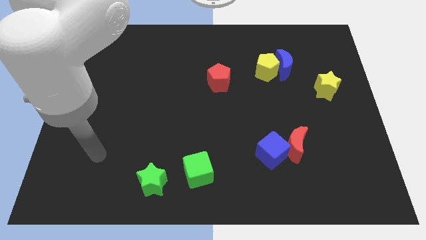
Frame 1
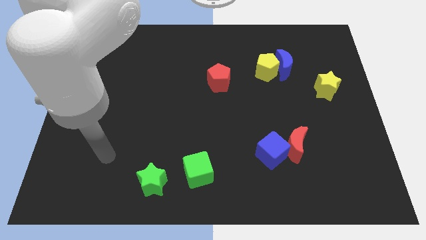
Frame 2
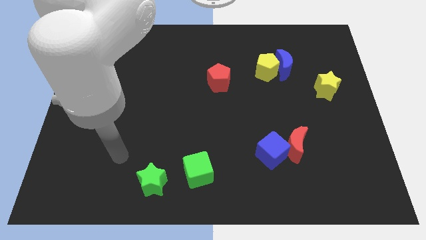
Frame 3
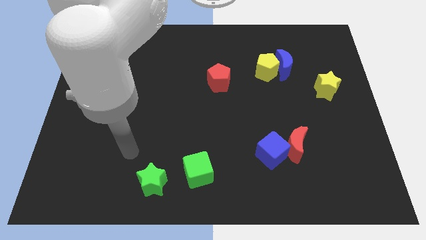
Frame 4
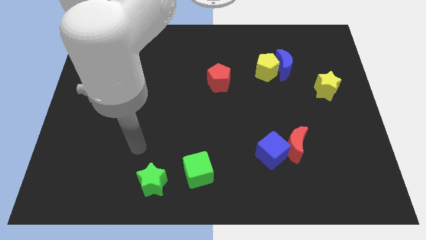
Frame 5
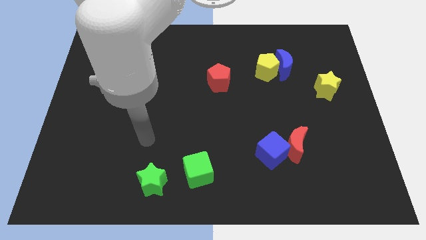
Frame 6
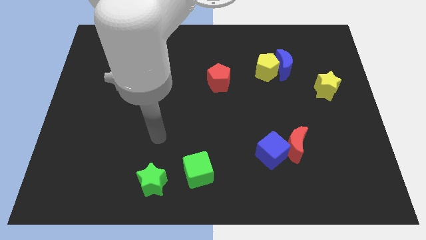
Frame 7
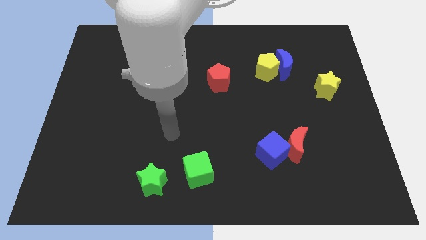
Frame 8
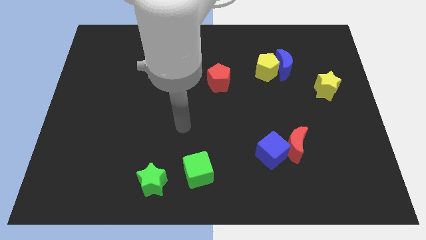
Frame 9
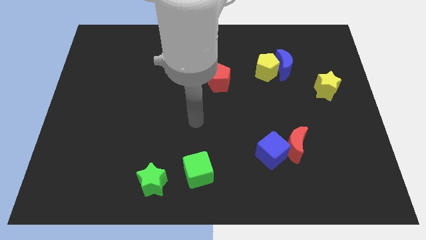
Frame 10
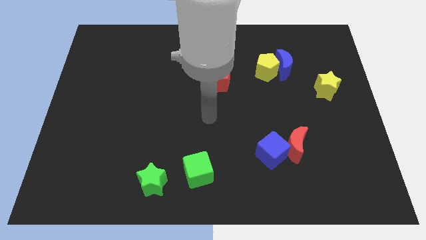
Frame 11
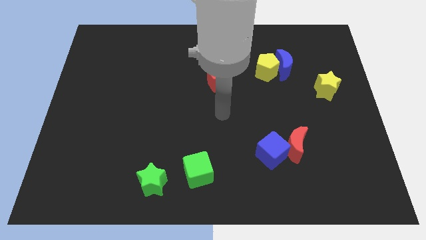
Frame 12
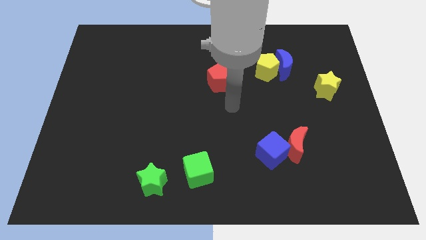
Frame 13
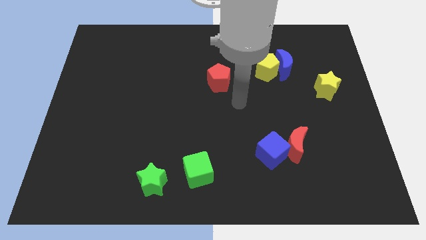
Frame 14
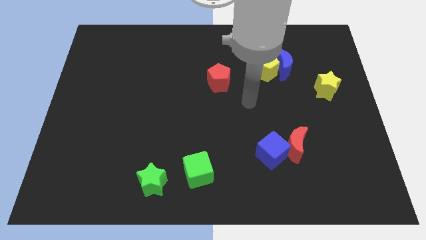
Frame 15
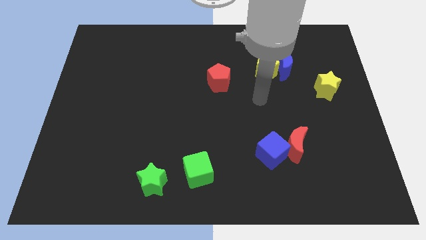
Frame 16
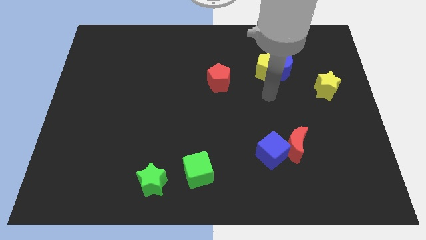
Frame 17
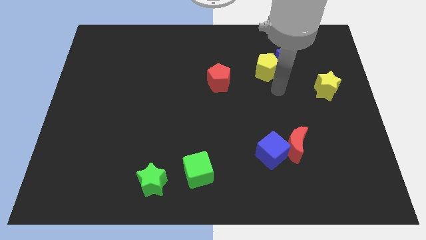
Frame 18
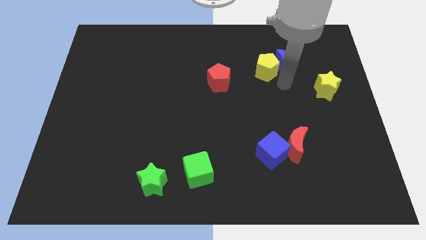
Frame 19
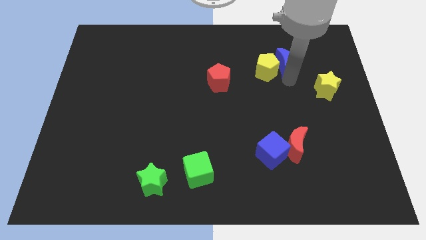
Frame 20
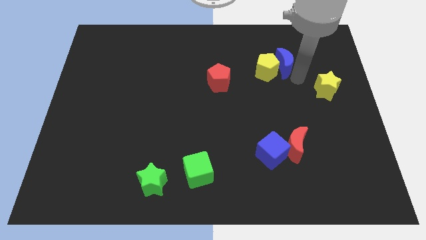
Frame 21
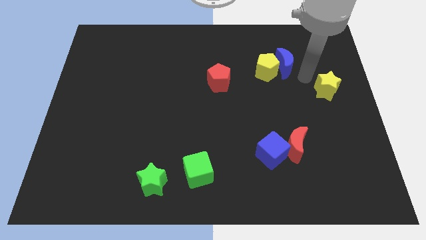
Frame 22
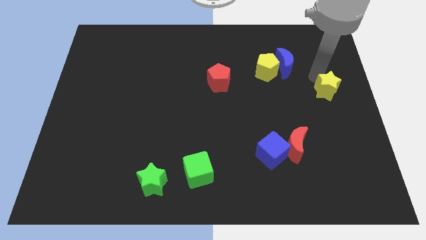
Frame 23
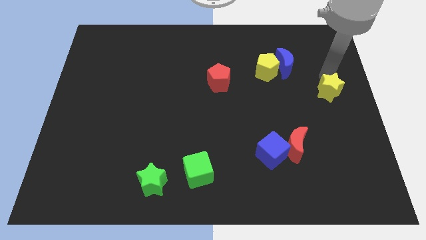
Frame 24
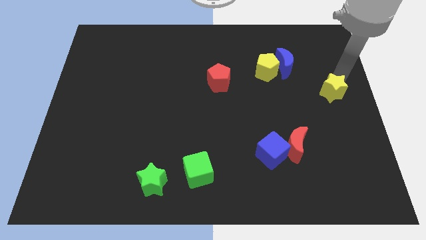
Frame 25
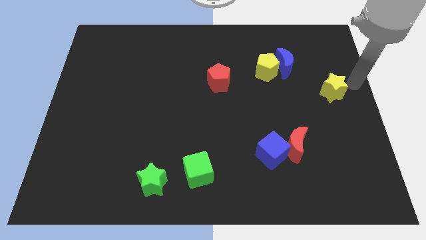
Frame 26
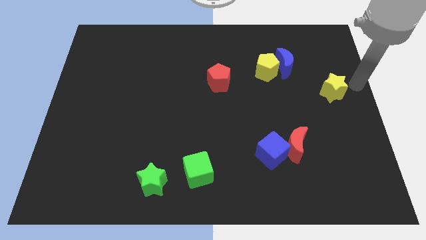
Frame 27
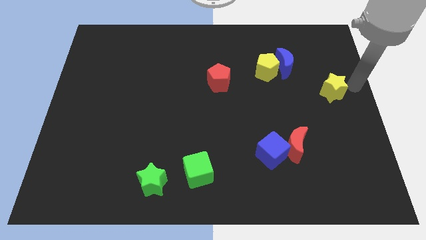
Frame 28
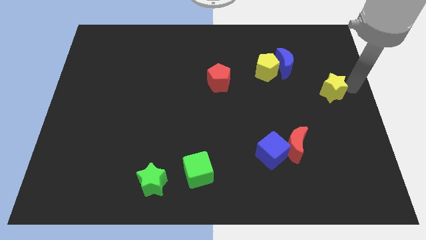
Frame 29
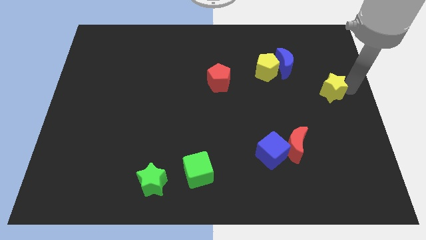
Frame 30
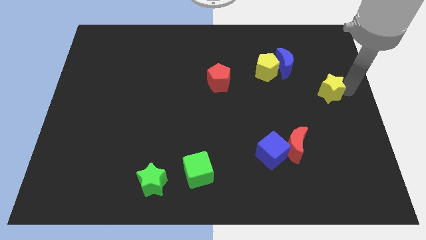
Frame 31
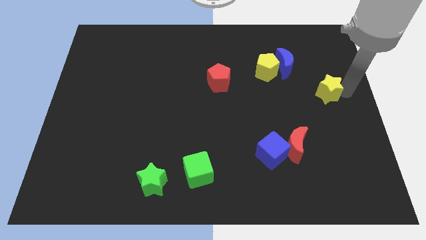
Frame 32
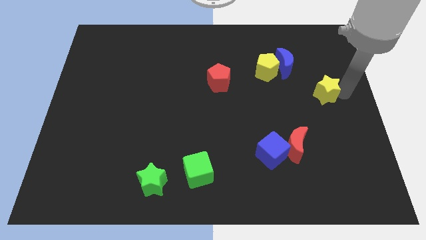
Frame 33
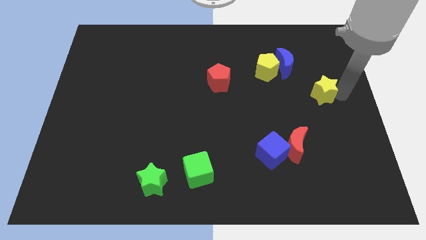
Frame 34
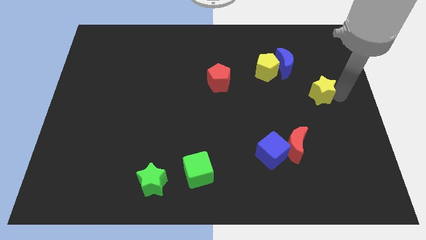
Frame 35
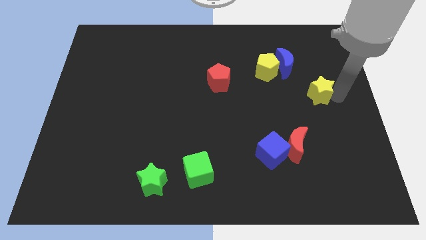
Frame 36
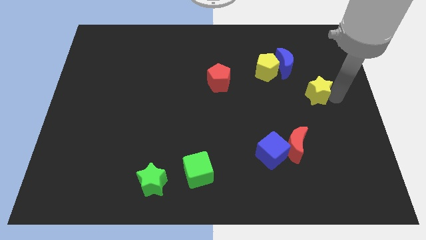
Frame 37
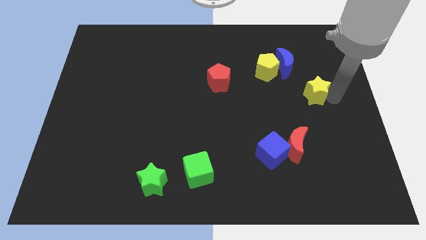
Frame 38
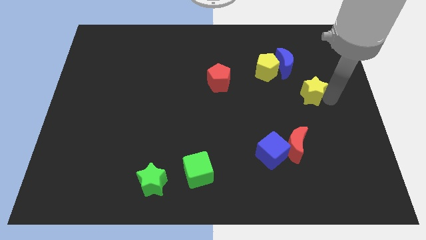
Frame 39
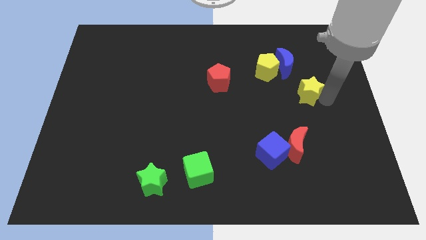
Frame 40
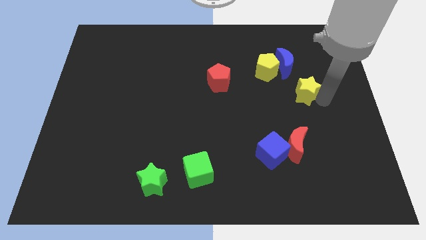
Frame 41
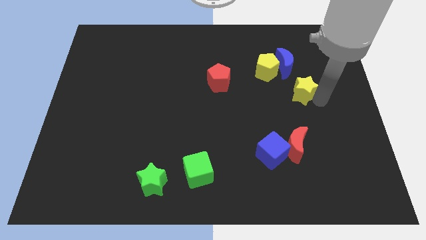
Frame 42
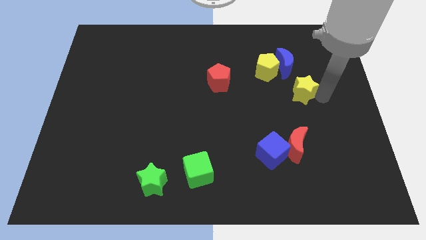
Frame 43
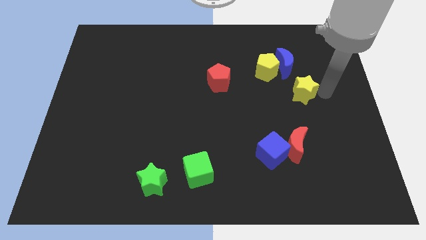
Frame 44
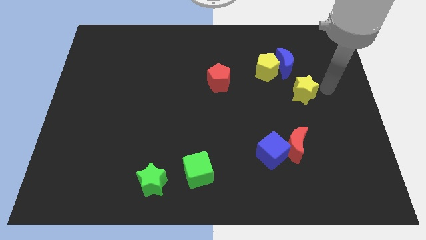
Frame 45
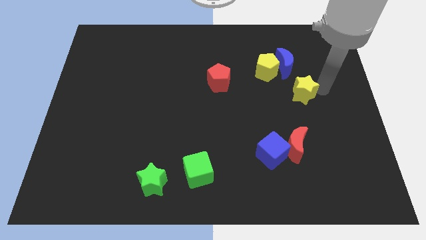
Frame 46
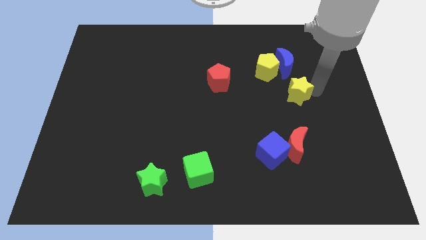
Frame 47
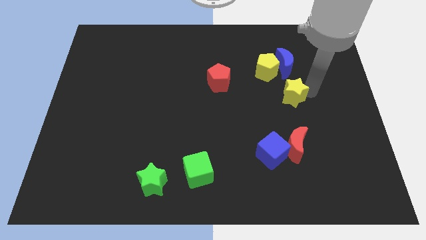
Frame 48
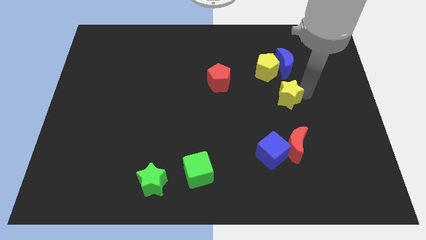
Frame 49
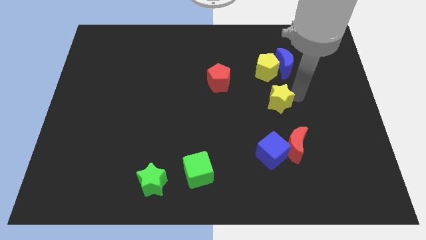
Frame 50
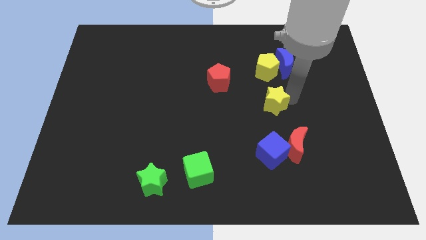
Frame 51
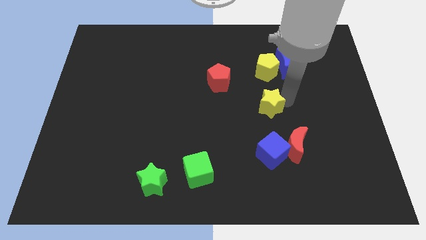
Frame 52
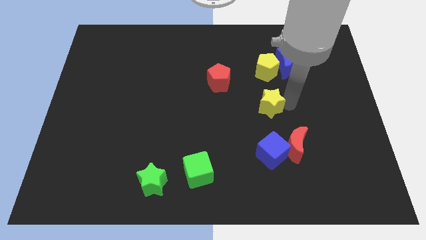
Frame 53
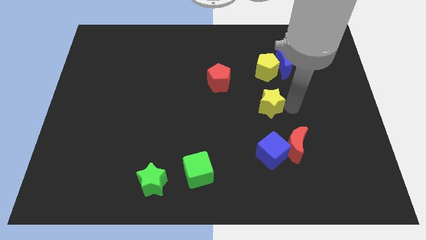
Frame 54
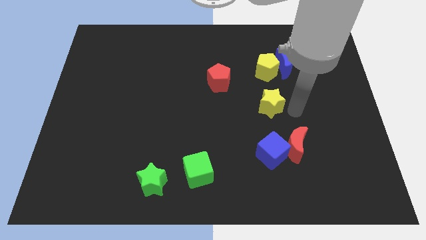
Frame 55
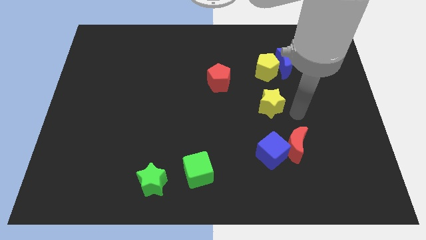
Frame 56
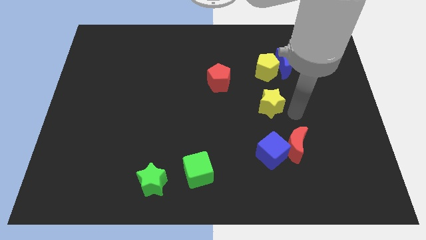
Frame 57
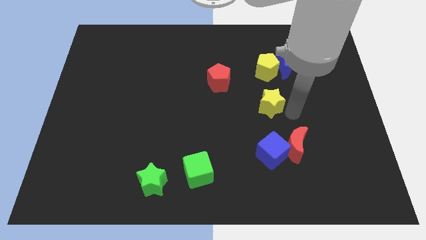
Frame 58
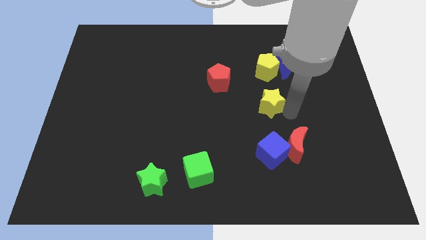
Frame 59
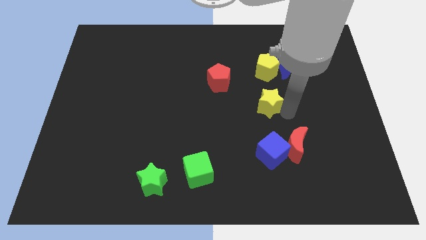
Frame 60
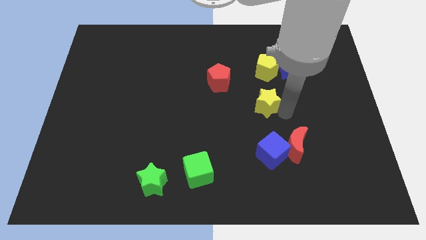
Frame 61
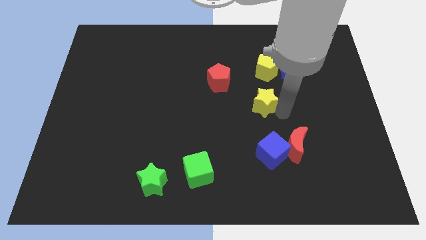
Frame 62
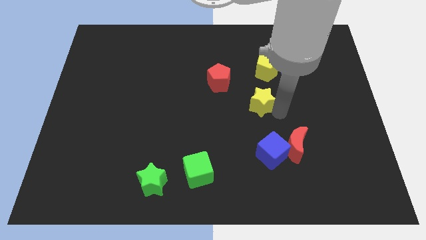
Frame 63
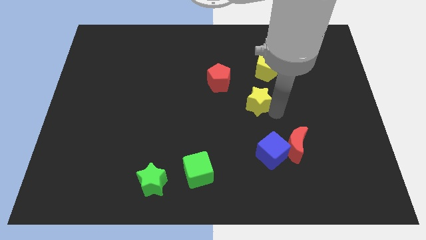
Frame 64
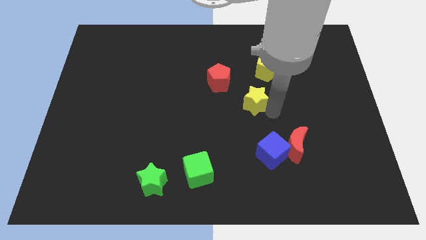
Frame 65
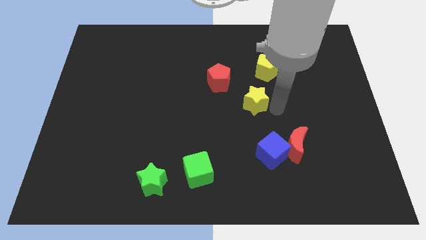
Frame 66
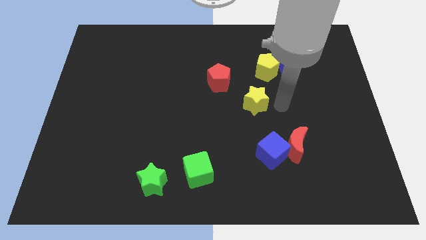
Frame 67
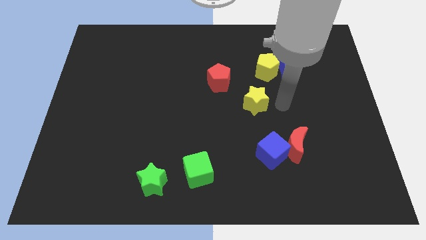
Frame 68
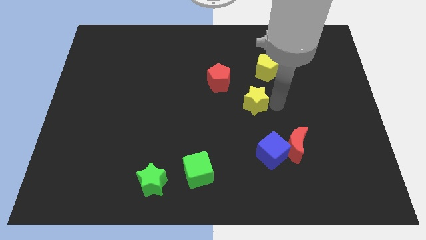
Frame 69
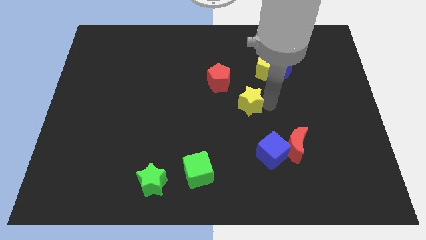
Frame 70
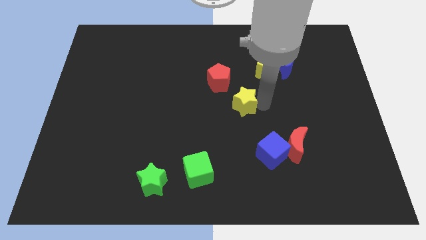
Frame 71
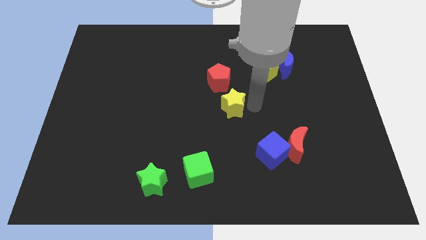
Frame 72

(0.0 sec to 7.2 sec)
push the yellow star left

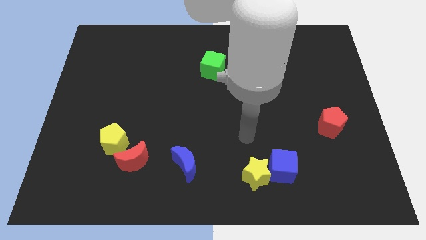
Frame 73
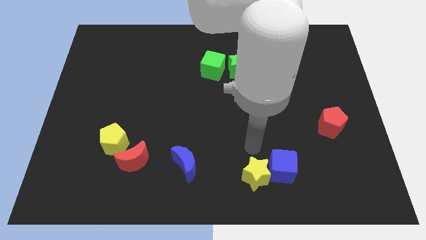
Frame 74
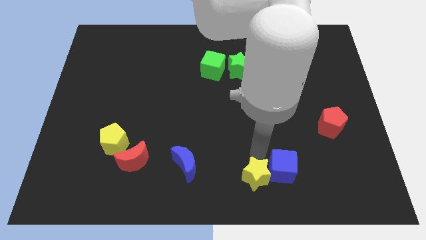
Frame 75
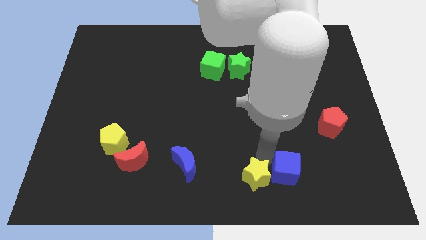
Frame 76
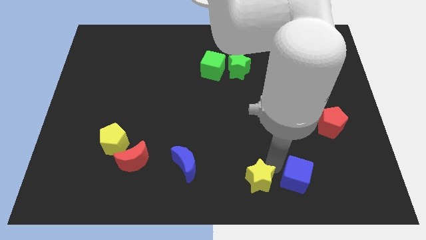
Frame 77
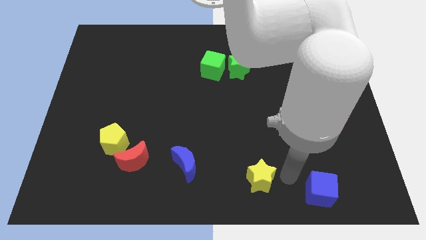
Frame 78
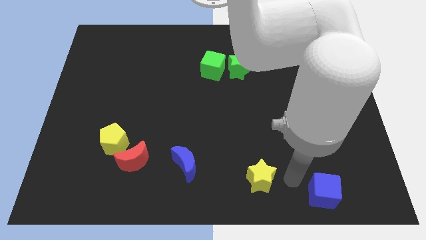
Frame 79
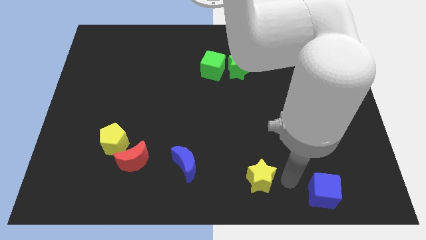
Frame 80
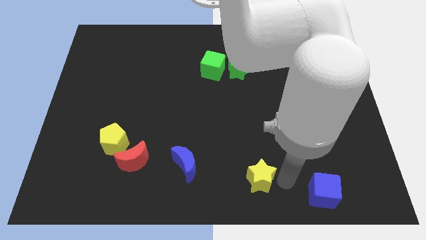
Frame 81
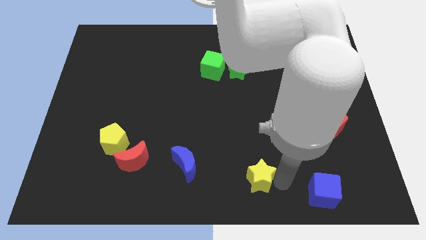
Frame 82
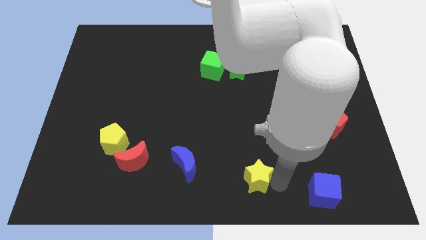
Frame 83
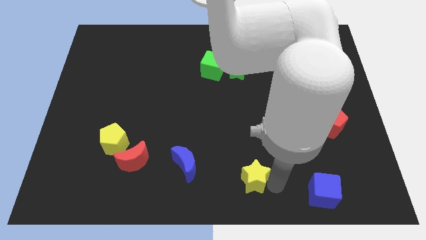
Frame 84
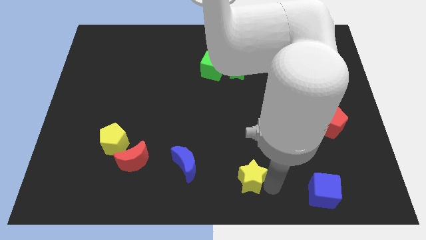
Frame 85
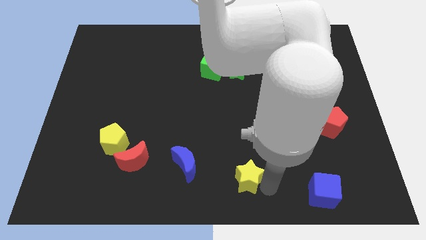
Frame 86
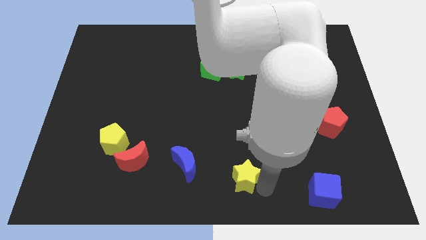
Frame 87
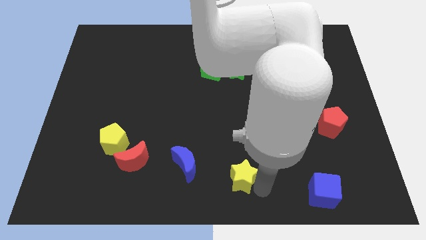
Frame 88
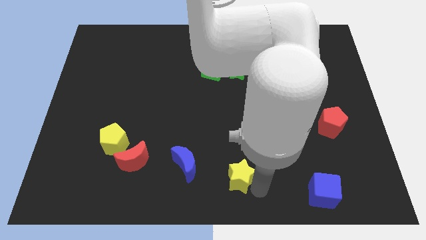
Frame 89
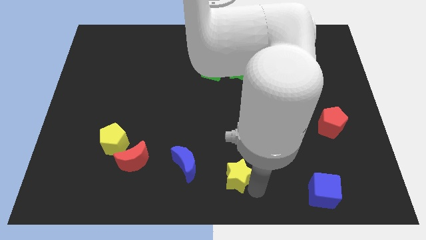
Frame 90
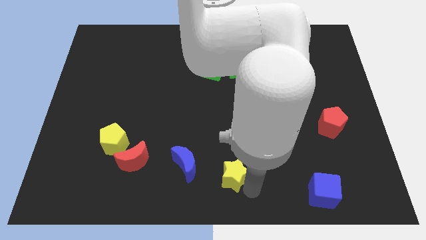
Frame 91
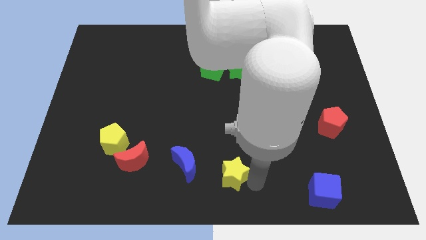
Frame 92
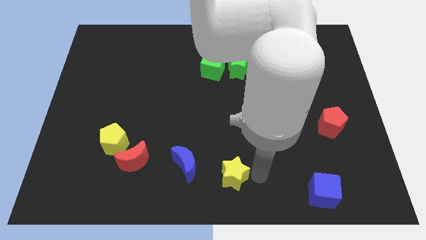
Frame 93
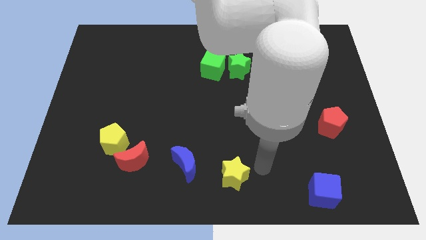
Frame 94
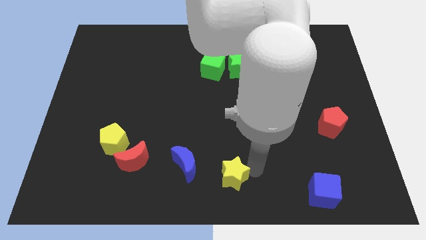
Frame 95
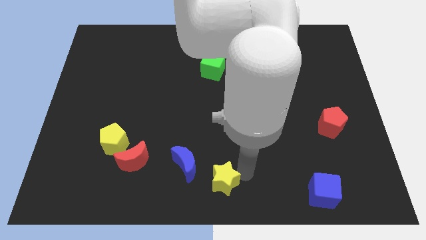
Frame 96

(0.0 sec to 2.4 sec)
push the yellow star somewhat to the left
